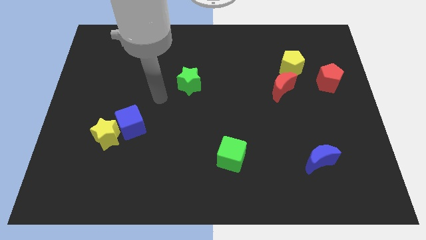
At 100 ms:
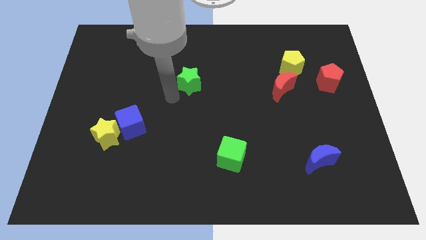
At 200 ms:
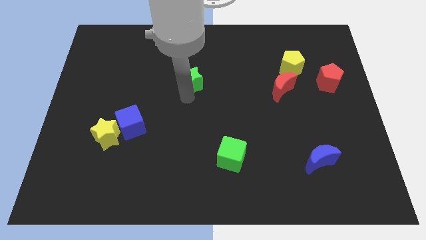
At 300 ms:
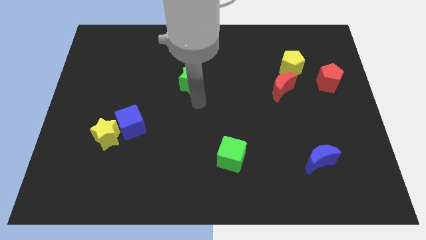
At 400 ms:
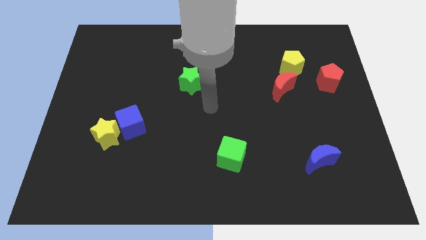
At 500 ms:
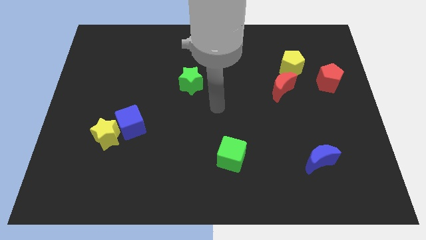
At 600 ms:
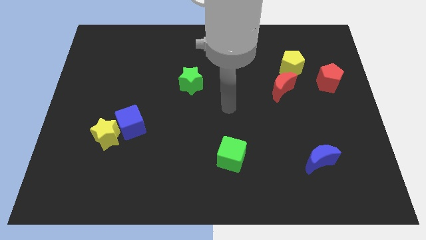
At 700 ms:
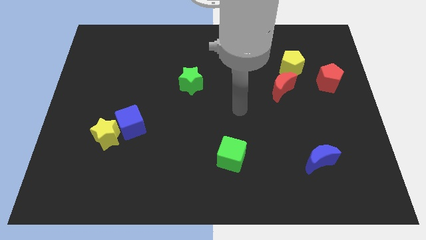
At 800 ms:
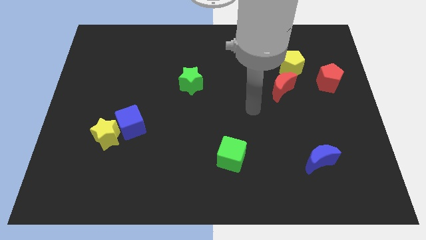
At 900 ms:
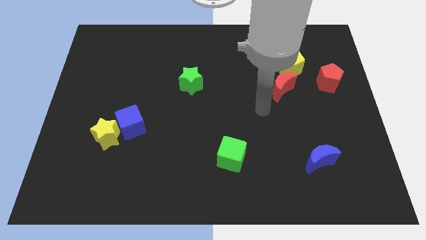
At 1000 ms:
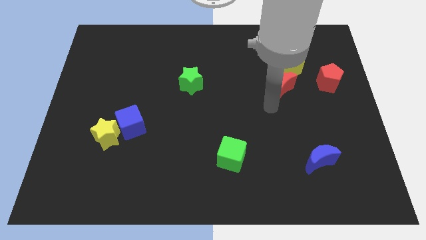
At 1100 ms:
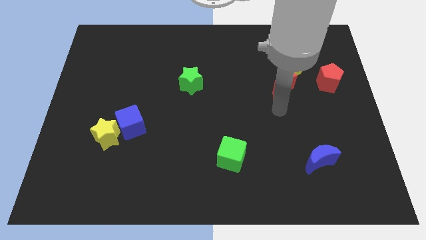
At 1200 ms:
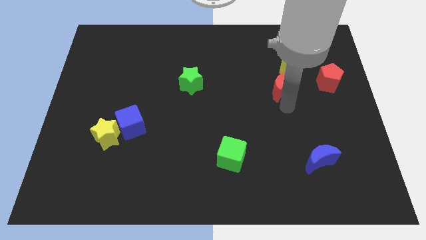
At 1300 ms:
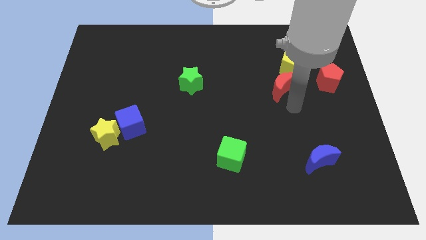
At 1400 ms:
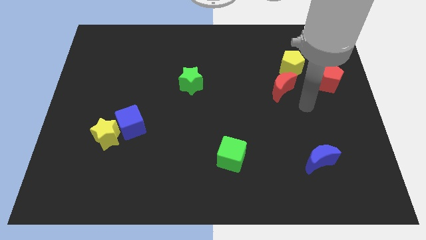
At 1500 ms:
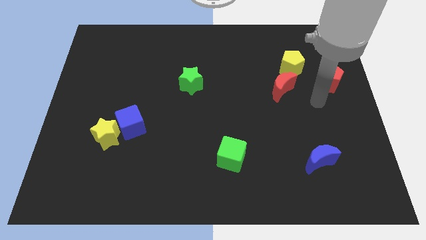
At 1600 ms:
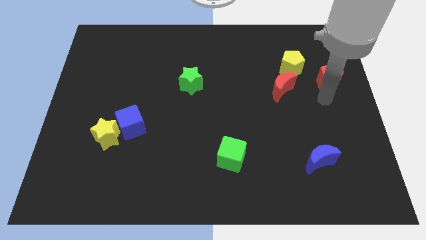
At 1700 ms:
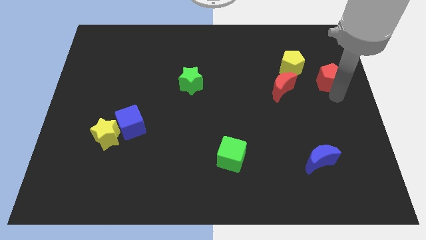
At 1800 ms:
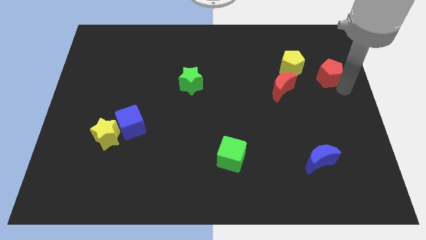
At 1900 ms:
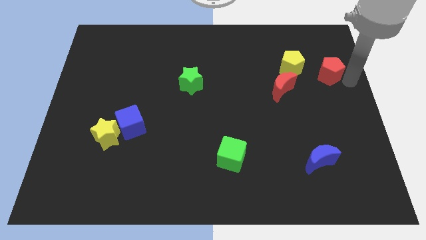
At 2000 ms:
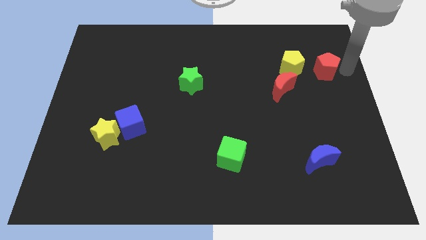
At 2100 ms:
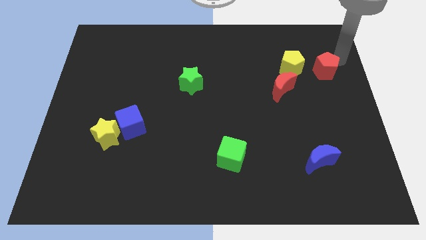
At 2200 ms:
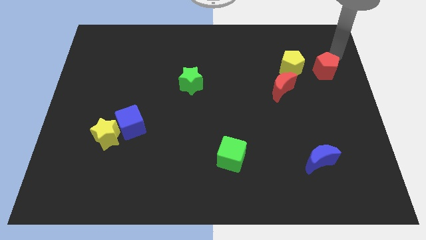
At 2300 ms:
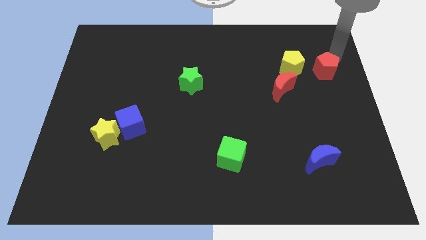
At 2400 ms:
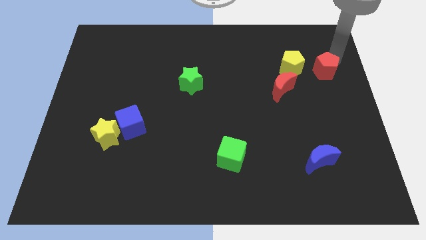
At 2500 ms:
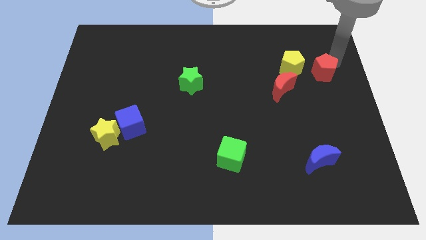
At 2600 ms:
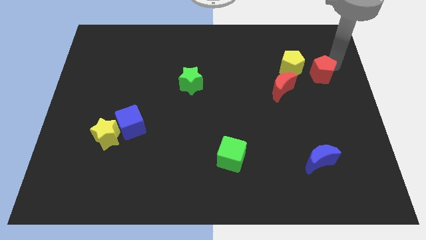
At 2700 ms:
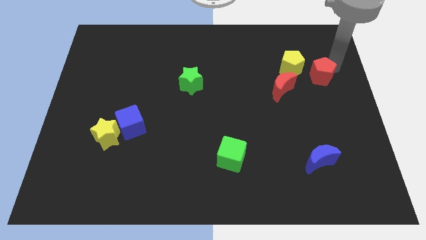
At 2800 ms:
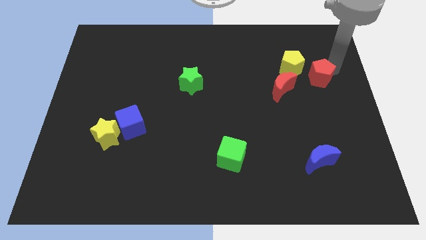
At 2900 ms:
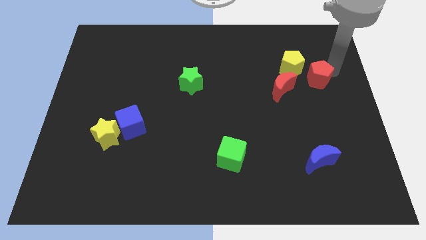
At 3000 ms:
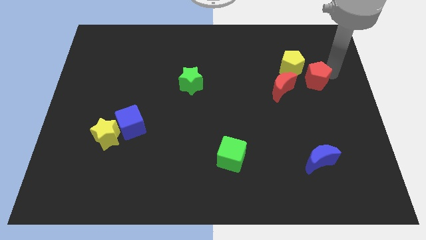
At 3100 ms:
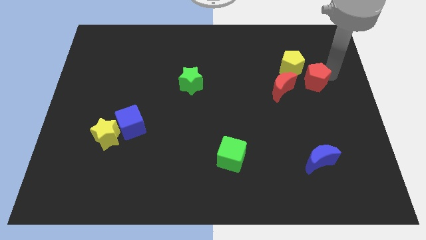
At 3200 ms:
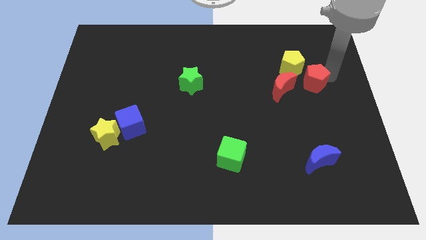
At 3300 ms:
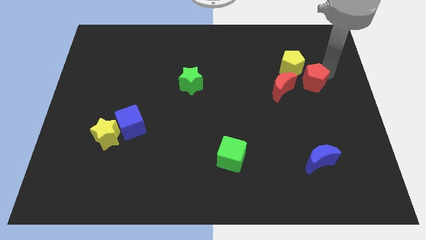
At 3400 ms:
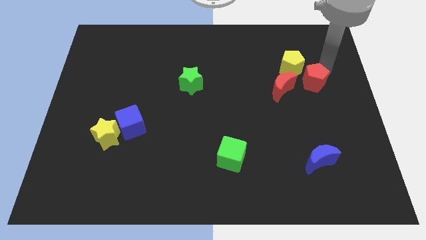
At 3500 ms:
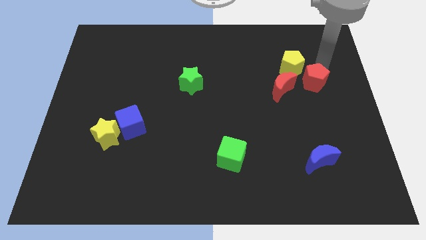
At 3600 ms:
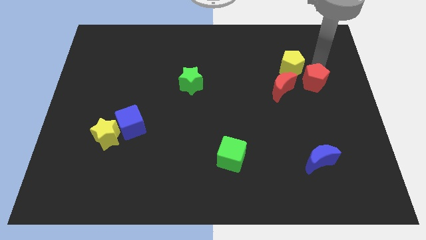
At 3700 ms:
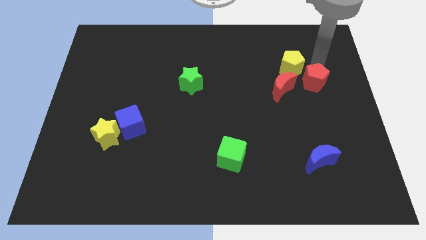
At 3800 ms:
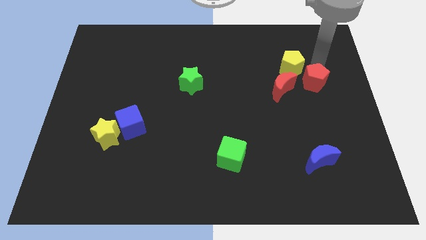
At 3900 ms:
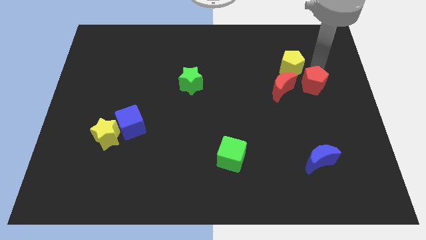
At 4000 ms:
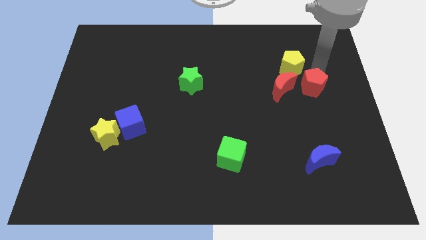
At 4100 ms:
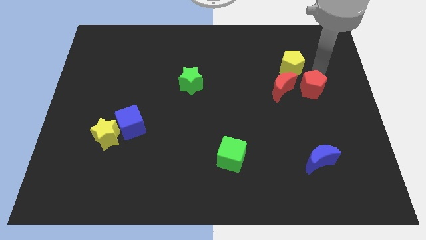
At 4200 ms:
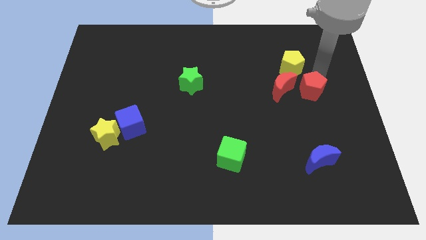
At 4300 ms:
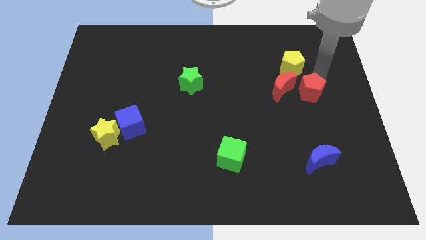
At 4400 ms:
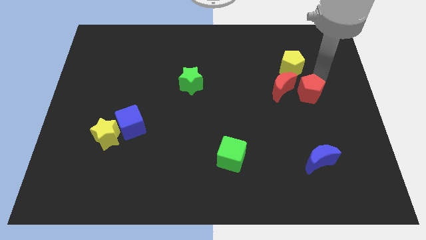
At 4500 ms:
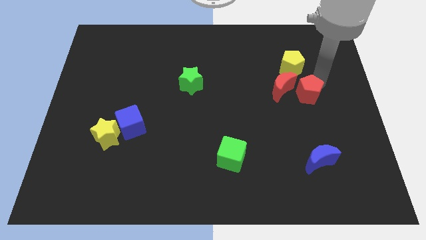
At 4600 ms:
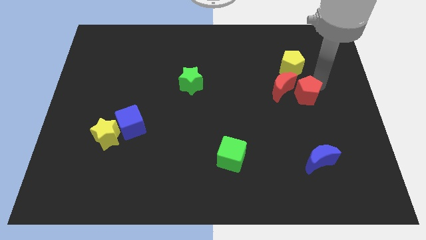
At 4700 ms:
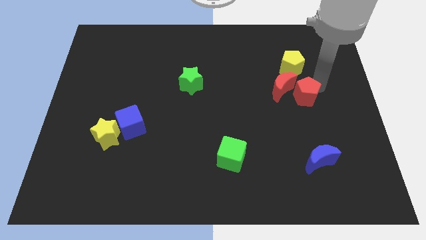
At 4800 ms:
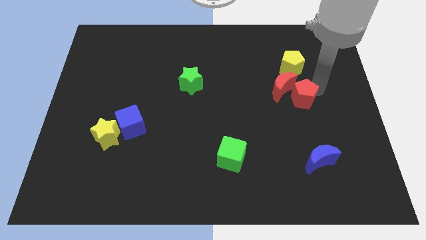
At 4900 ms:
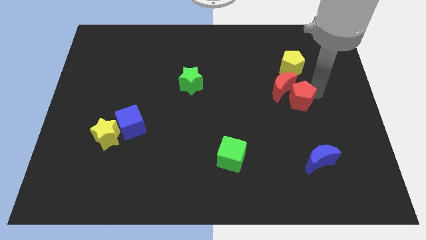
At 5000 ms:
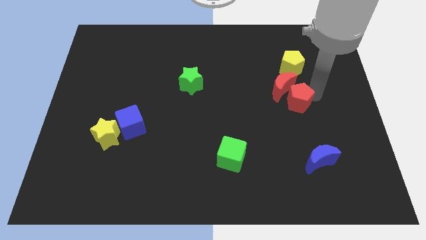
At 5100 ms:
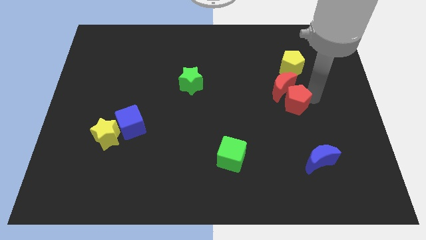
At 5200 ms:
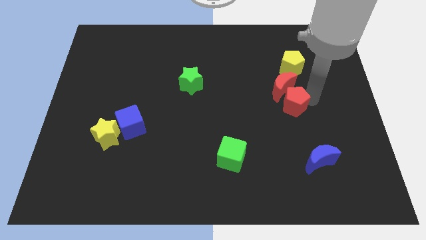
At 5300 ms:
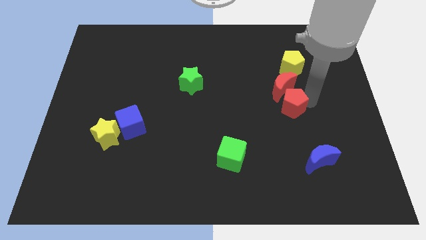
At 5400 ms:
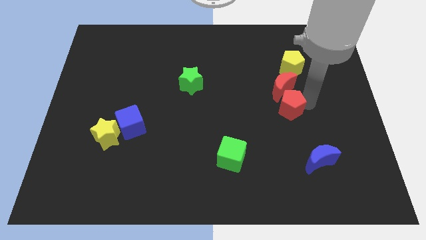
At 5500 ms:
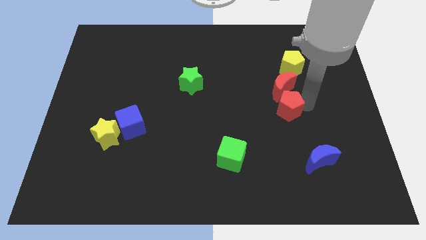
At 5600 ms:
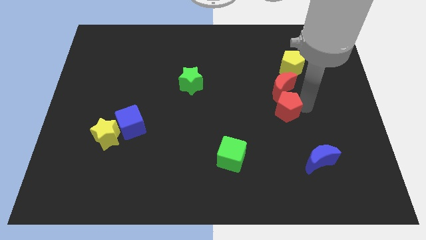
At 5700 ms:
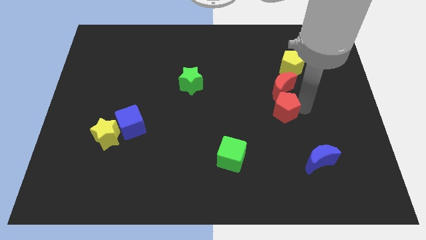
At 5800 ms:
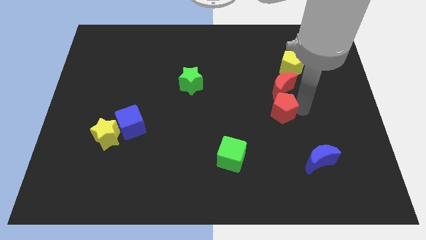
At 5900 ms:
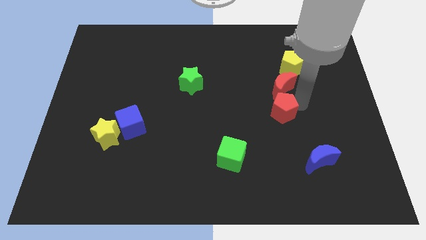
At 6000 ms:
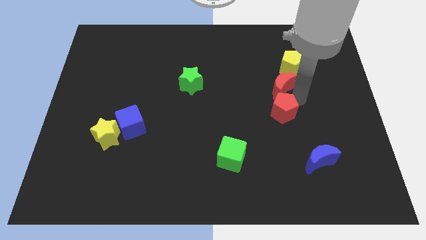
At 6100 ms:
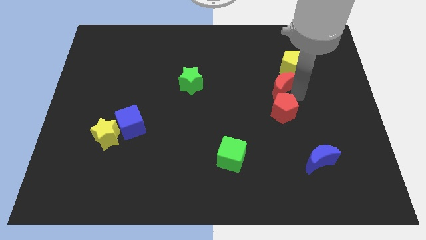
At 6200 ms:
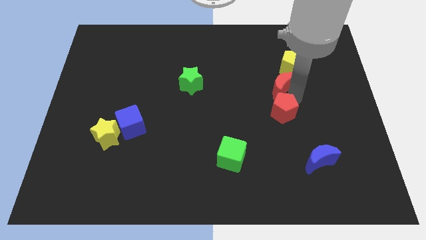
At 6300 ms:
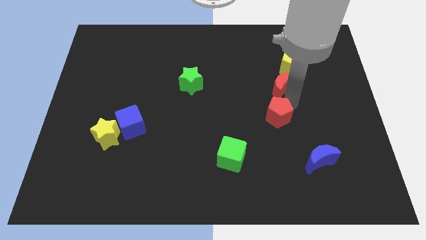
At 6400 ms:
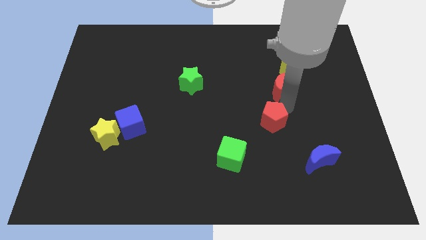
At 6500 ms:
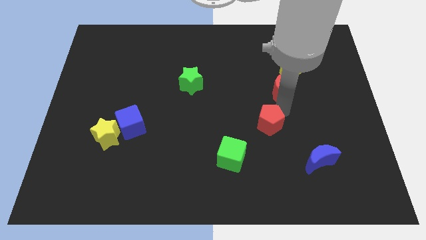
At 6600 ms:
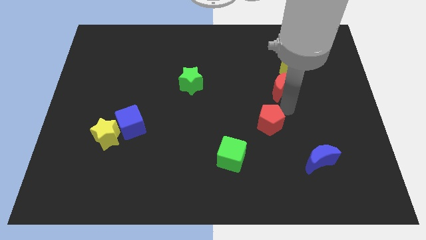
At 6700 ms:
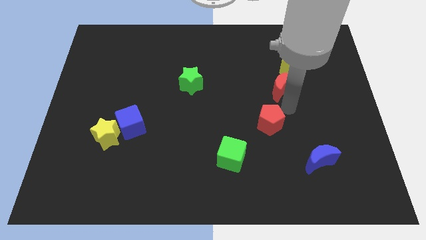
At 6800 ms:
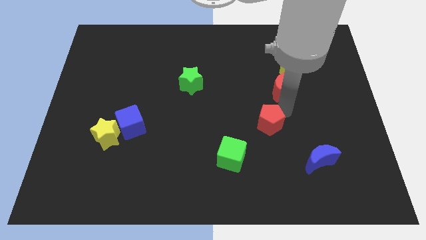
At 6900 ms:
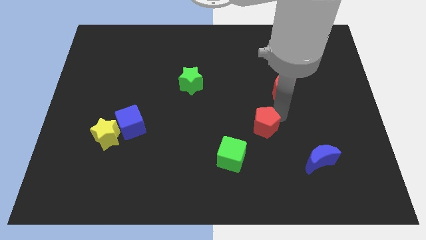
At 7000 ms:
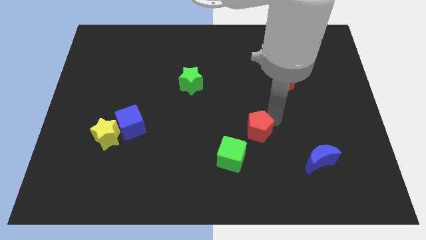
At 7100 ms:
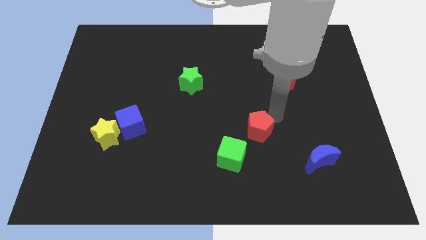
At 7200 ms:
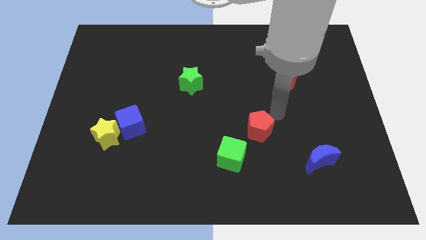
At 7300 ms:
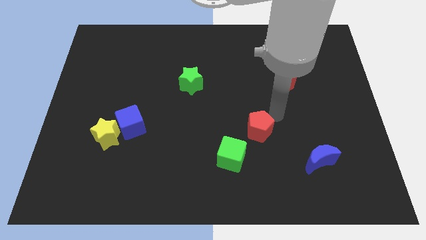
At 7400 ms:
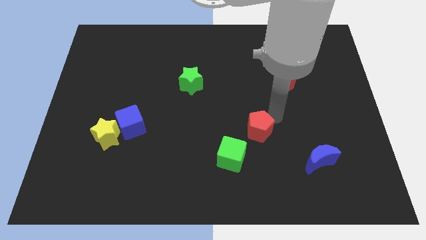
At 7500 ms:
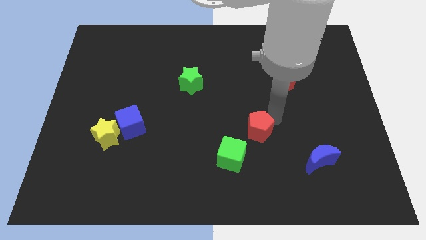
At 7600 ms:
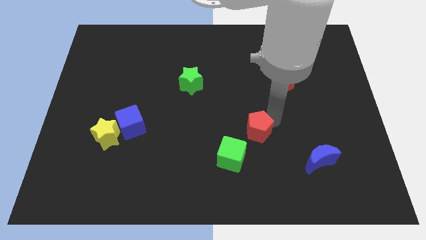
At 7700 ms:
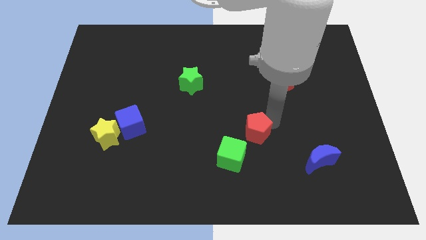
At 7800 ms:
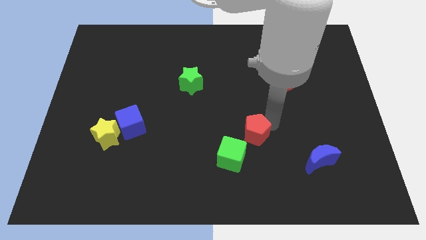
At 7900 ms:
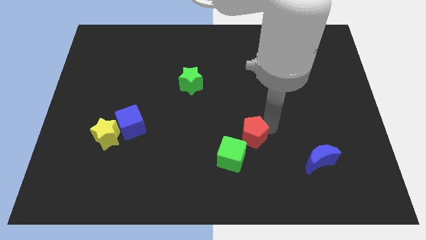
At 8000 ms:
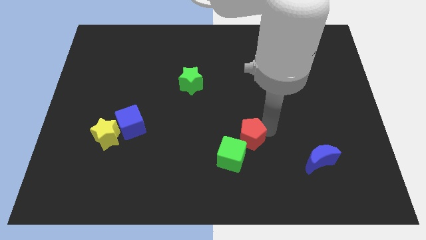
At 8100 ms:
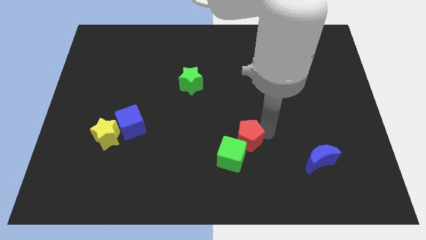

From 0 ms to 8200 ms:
put the red pentagon to the green cube
